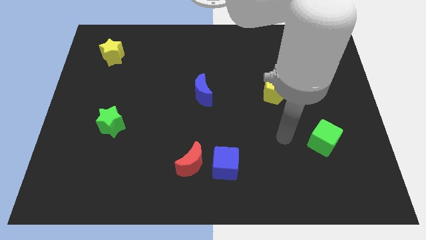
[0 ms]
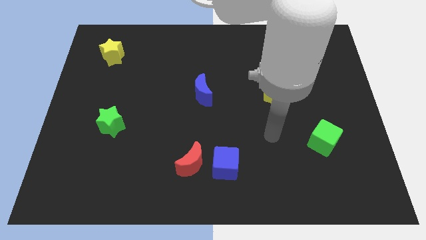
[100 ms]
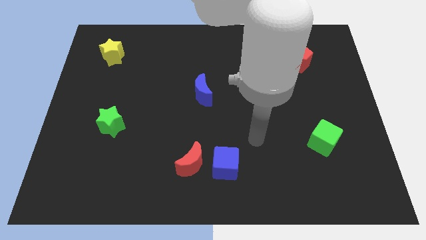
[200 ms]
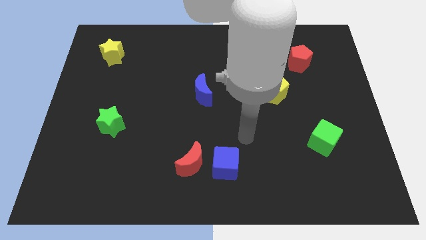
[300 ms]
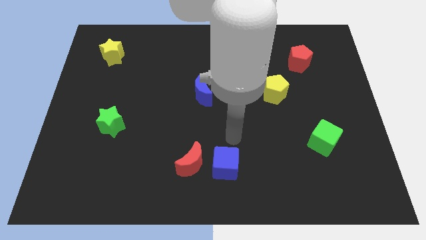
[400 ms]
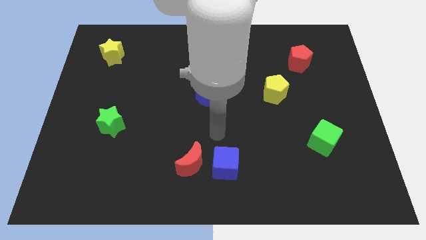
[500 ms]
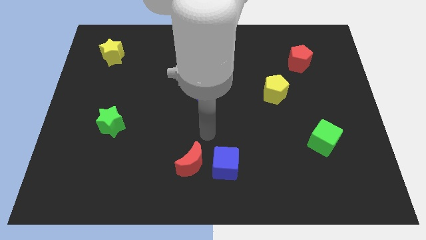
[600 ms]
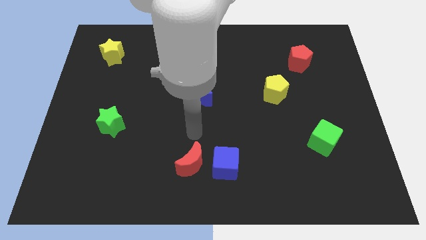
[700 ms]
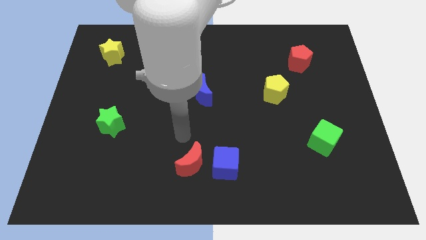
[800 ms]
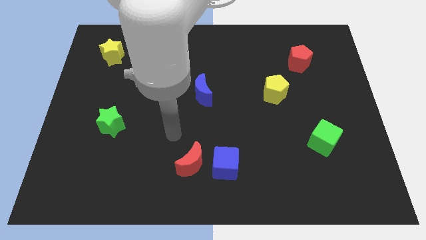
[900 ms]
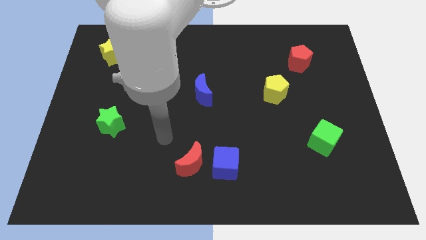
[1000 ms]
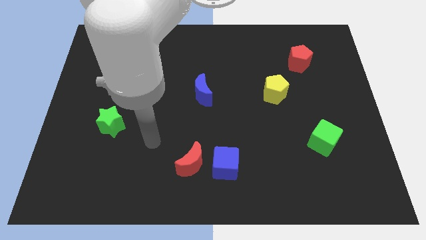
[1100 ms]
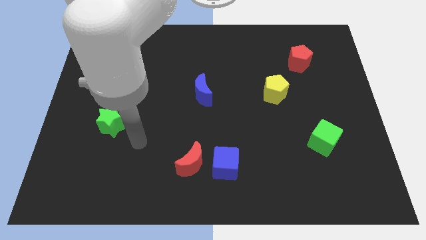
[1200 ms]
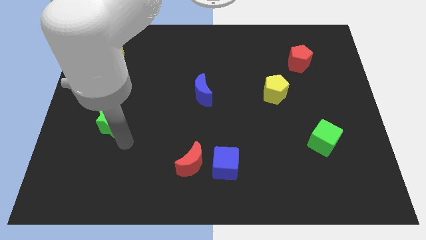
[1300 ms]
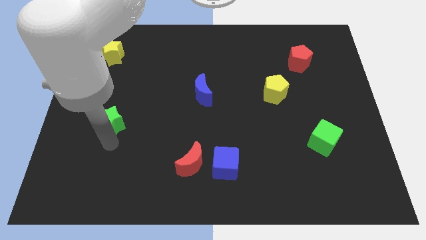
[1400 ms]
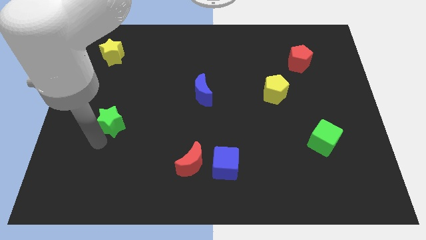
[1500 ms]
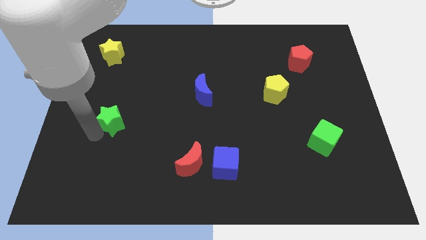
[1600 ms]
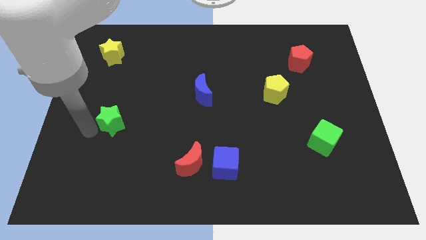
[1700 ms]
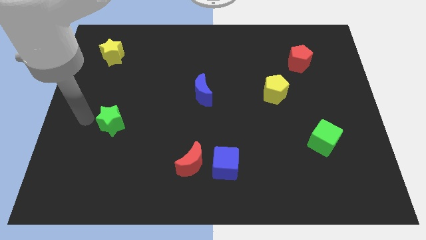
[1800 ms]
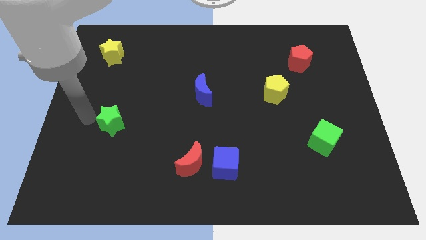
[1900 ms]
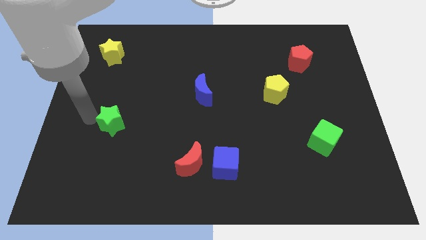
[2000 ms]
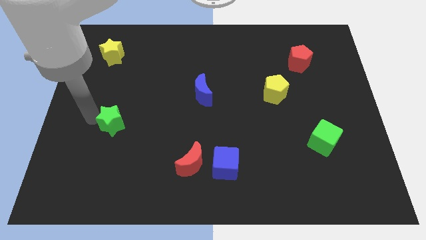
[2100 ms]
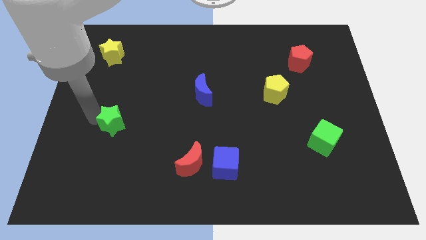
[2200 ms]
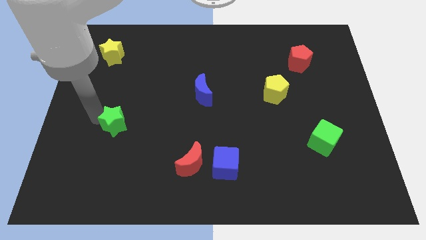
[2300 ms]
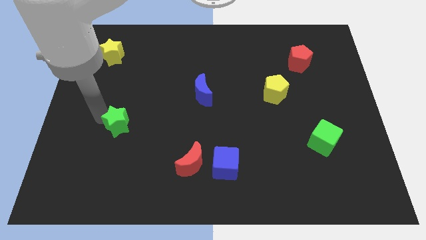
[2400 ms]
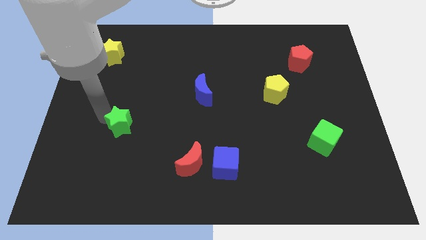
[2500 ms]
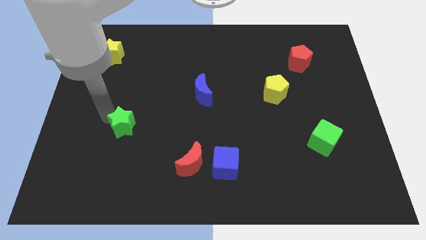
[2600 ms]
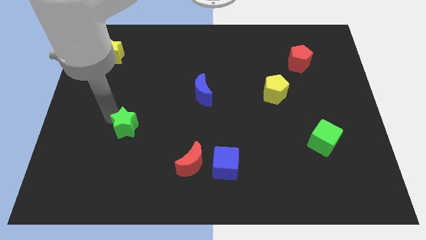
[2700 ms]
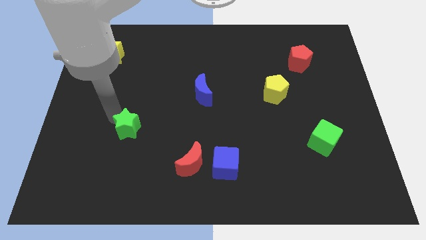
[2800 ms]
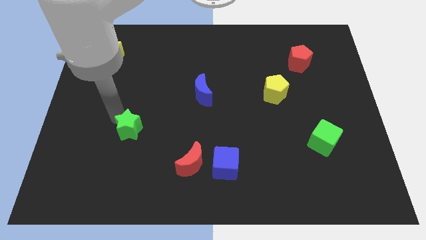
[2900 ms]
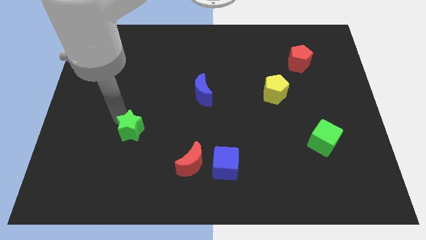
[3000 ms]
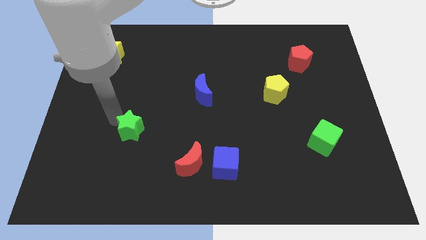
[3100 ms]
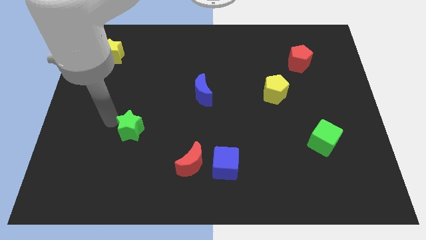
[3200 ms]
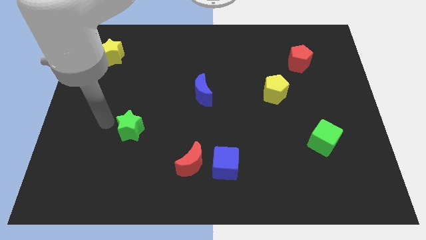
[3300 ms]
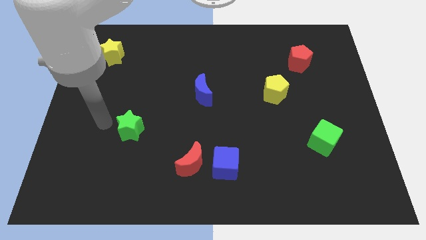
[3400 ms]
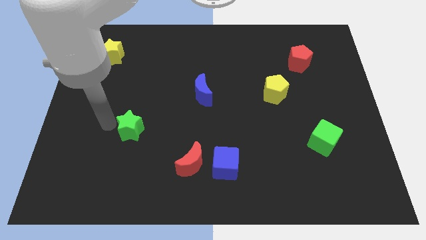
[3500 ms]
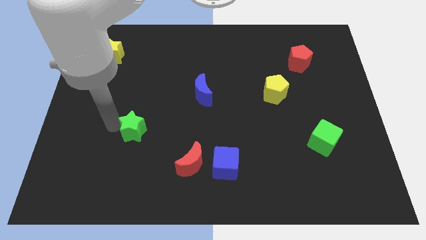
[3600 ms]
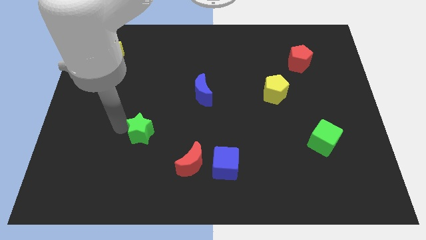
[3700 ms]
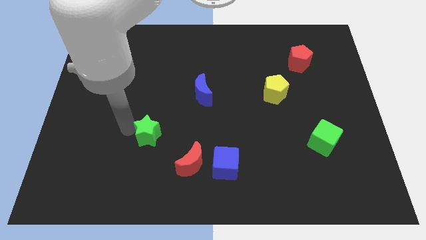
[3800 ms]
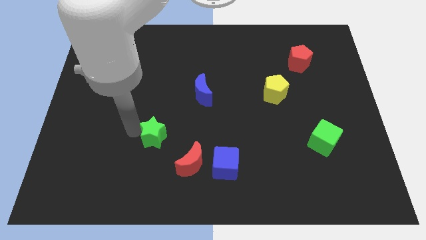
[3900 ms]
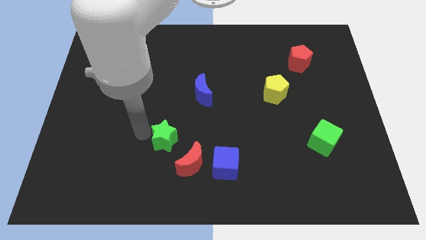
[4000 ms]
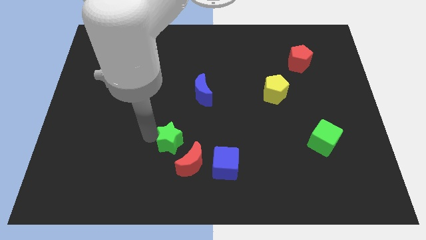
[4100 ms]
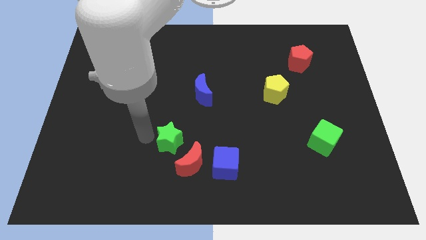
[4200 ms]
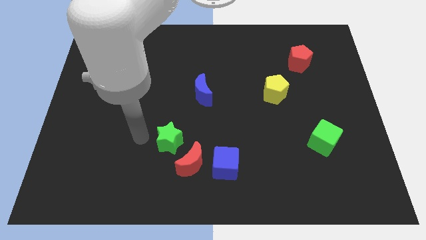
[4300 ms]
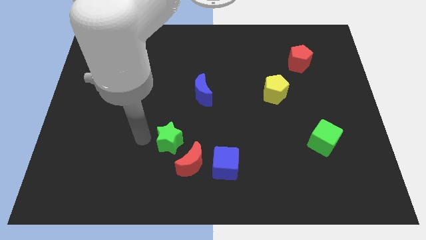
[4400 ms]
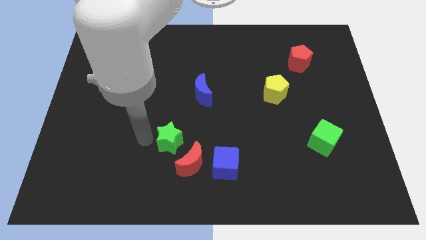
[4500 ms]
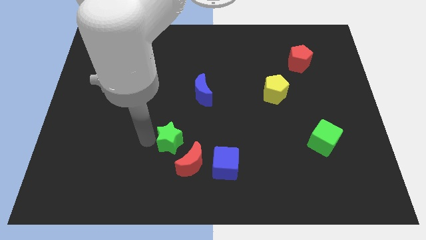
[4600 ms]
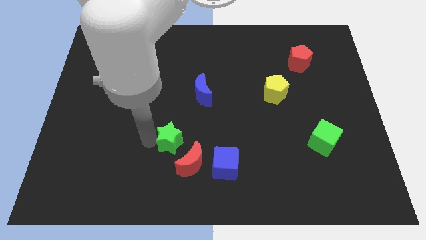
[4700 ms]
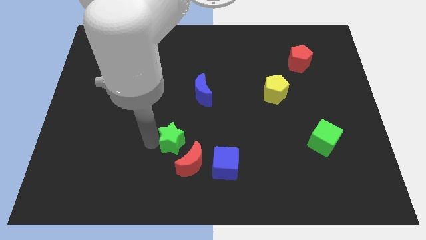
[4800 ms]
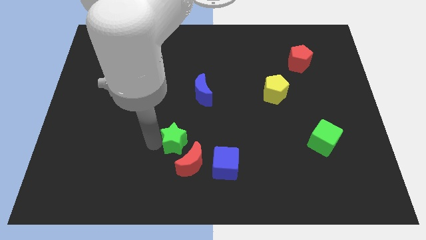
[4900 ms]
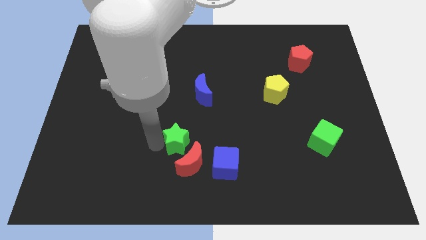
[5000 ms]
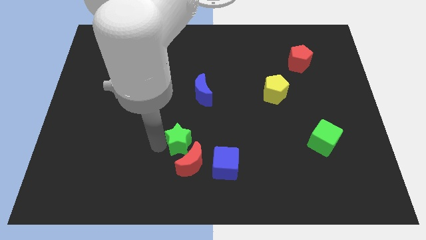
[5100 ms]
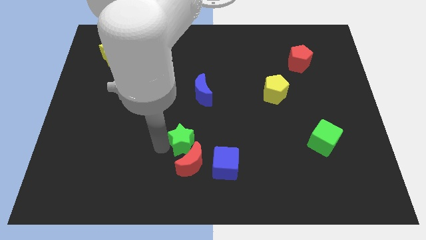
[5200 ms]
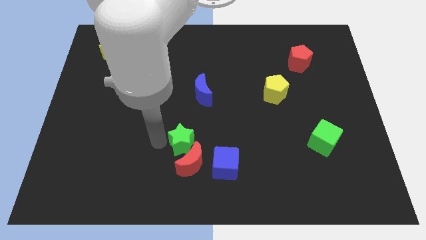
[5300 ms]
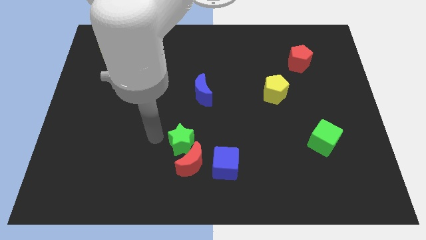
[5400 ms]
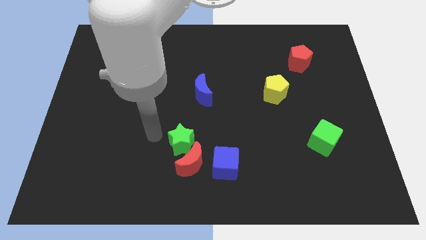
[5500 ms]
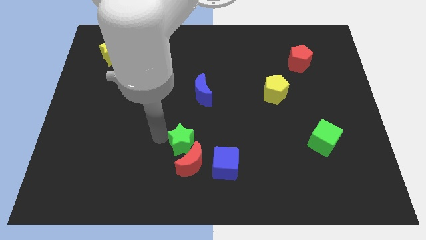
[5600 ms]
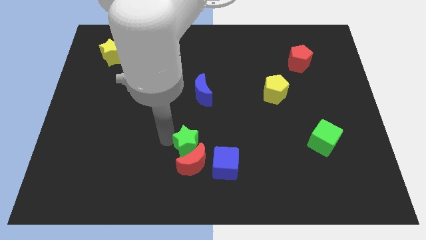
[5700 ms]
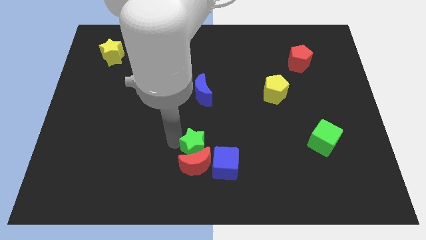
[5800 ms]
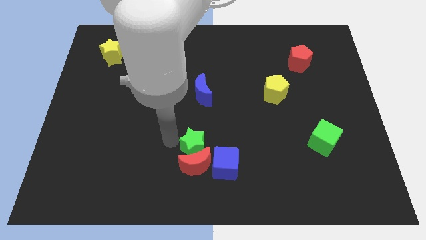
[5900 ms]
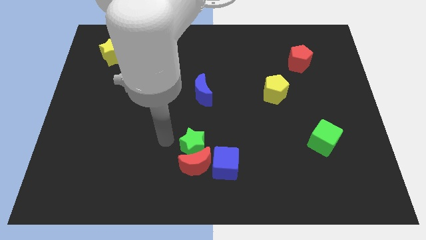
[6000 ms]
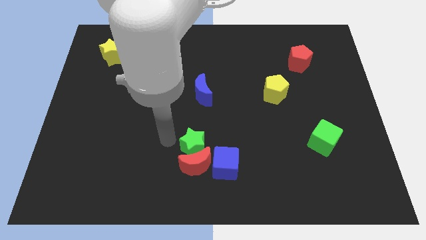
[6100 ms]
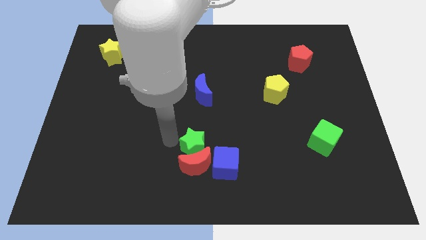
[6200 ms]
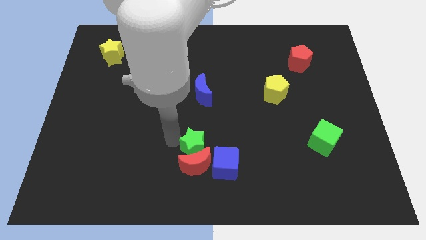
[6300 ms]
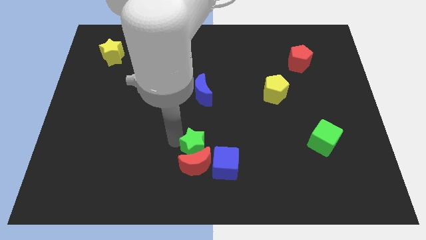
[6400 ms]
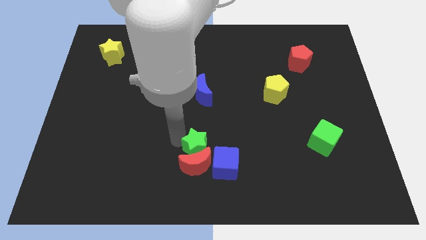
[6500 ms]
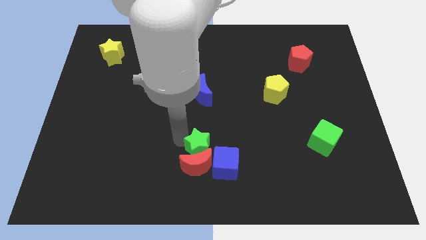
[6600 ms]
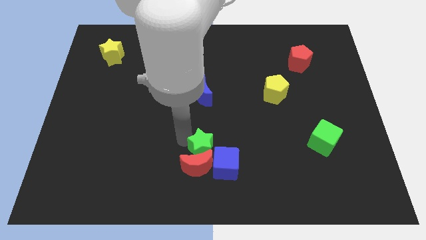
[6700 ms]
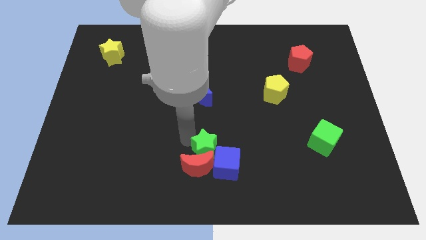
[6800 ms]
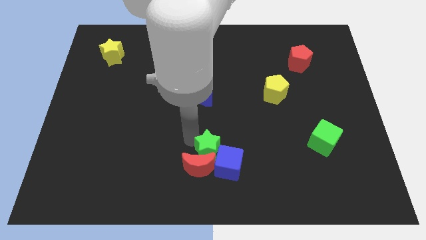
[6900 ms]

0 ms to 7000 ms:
move the green star towards the blue cube

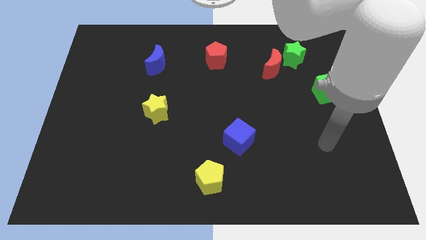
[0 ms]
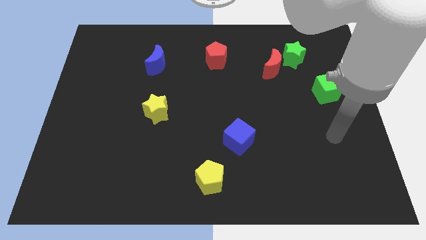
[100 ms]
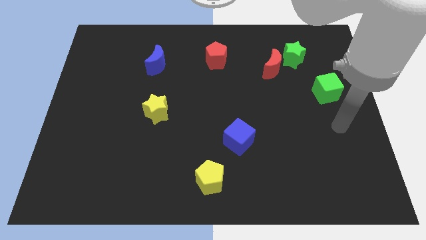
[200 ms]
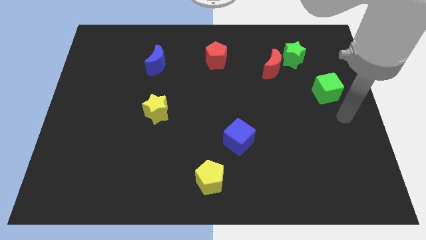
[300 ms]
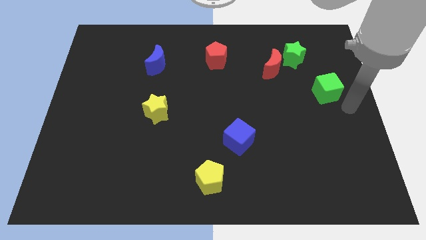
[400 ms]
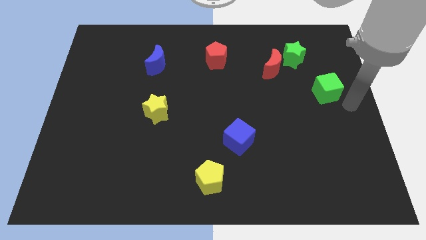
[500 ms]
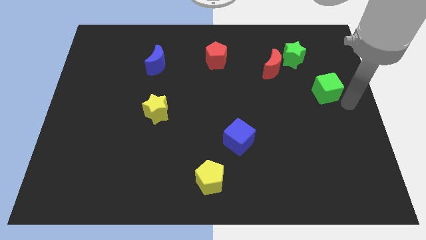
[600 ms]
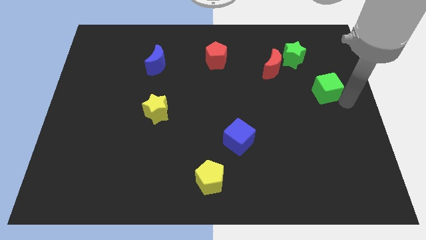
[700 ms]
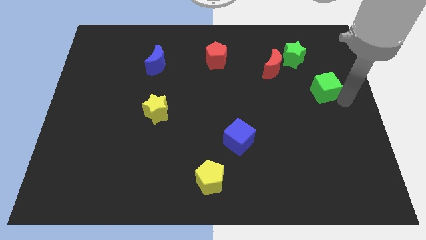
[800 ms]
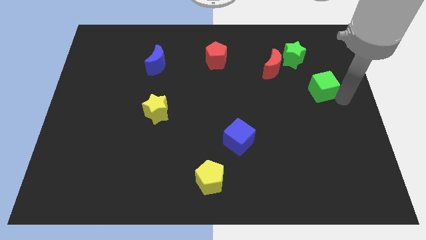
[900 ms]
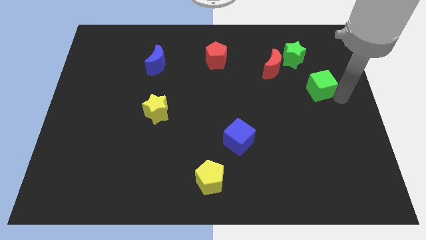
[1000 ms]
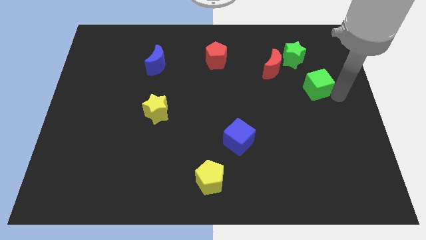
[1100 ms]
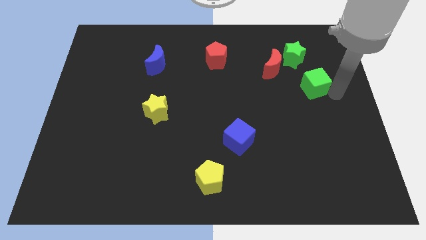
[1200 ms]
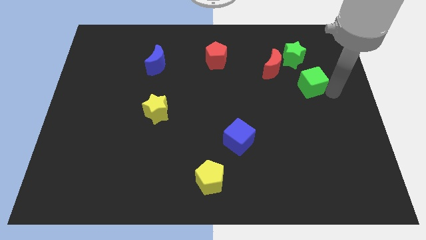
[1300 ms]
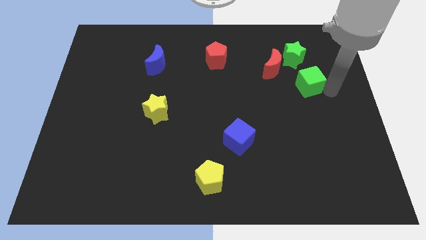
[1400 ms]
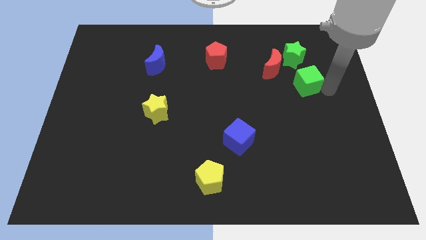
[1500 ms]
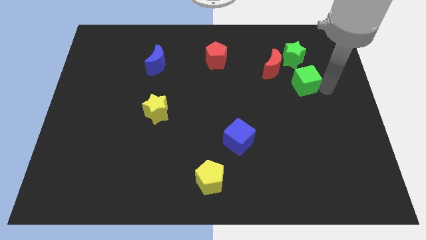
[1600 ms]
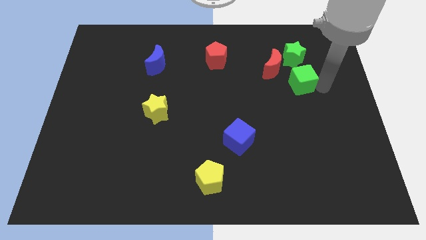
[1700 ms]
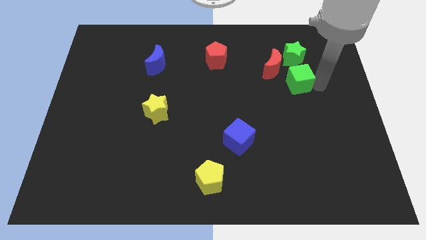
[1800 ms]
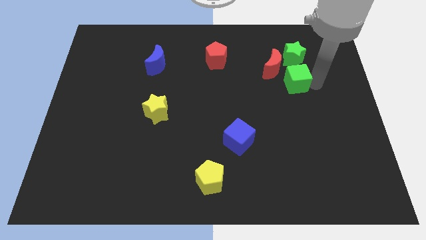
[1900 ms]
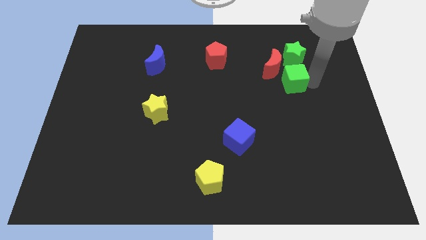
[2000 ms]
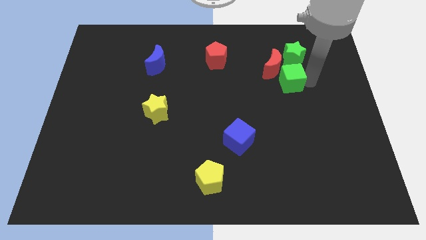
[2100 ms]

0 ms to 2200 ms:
slide the green cube to the red moon
